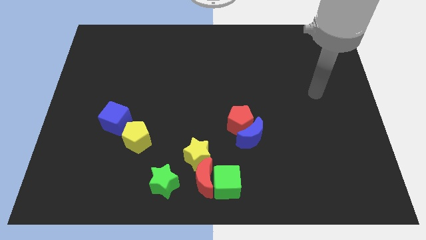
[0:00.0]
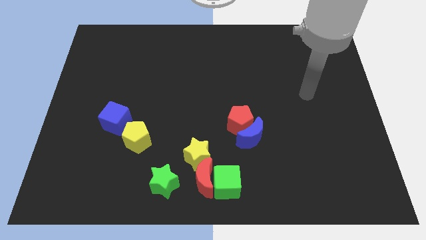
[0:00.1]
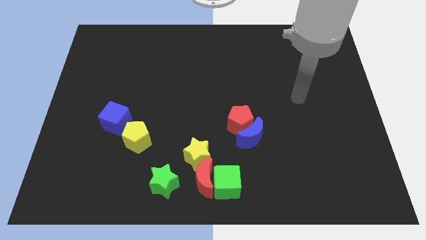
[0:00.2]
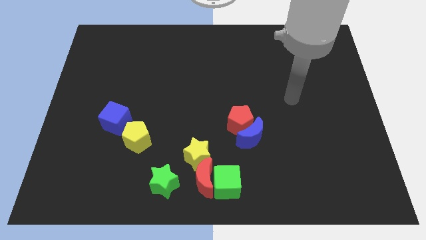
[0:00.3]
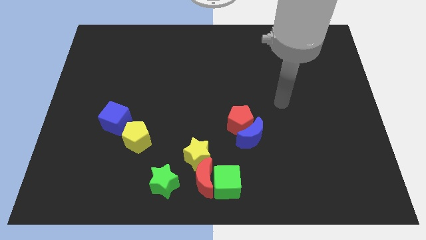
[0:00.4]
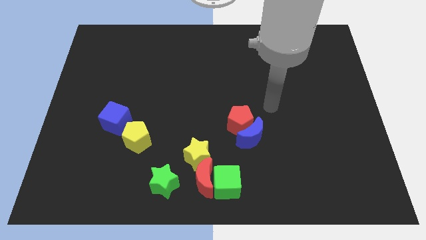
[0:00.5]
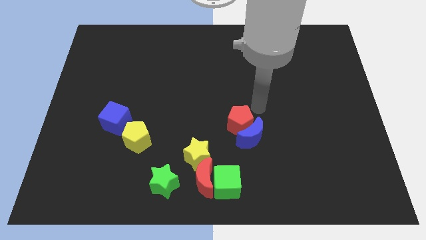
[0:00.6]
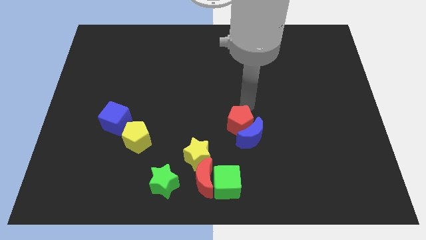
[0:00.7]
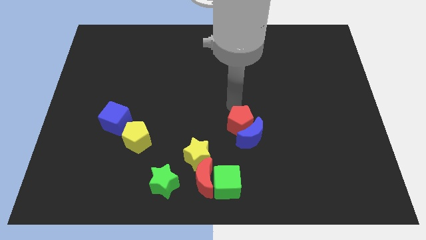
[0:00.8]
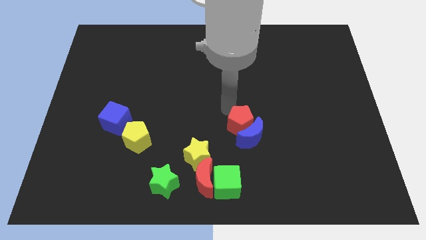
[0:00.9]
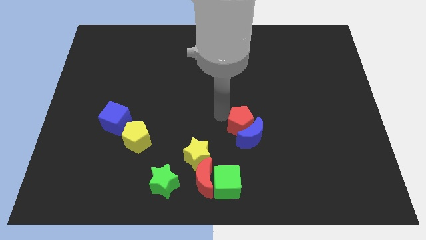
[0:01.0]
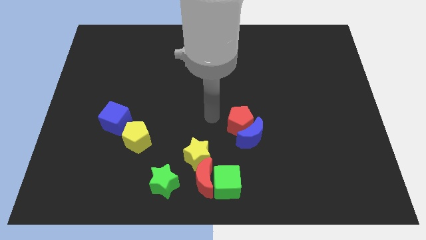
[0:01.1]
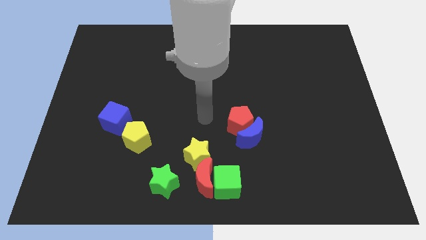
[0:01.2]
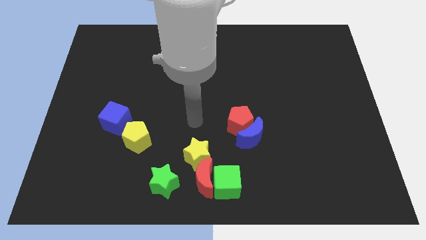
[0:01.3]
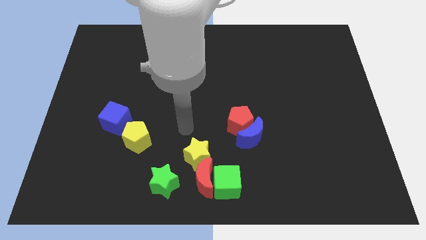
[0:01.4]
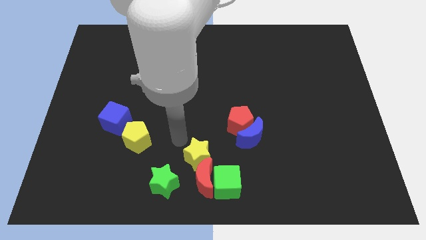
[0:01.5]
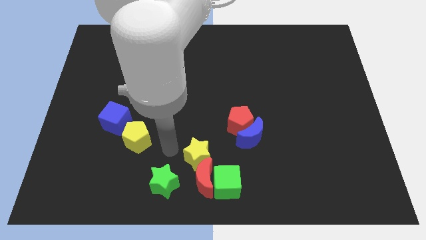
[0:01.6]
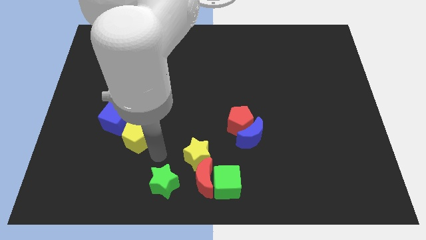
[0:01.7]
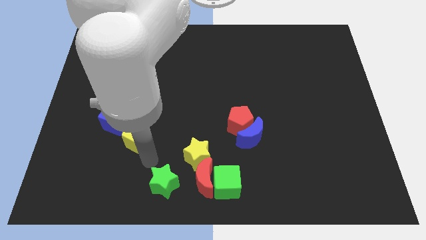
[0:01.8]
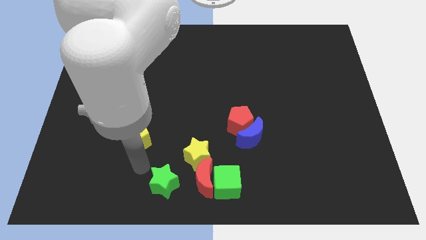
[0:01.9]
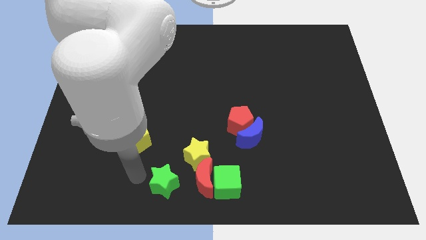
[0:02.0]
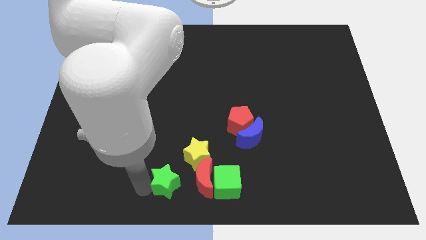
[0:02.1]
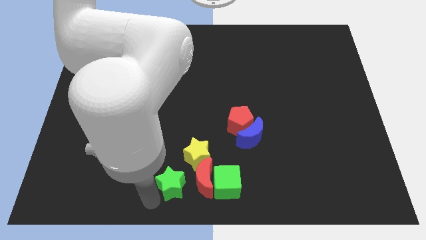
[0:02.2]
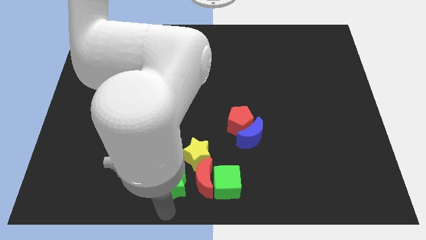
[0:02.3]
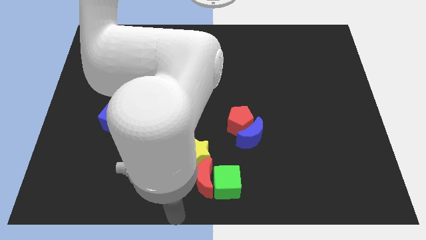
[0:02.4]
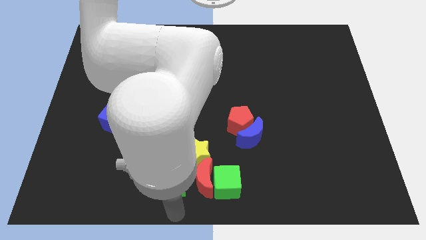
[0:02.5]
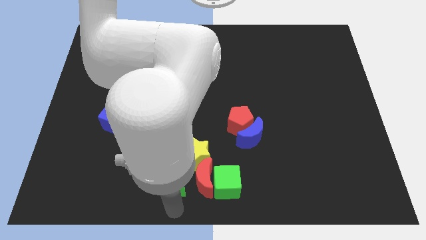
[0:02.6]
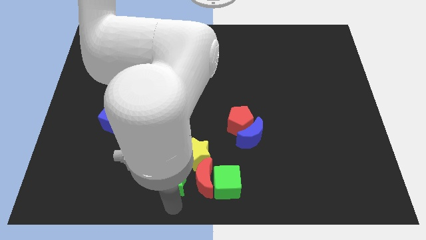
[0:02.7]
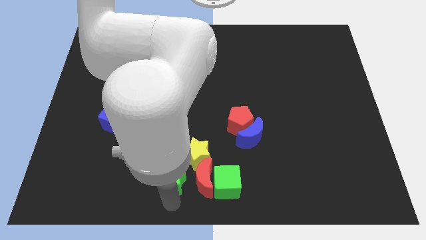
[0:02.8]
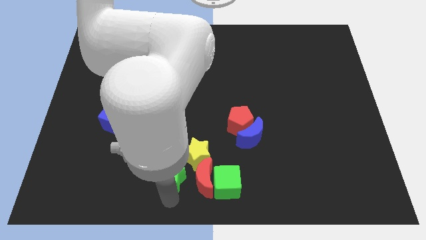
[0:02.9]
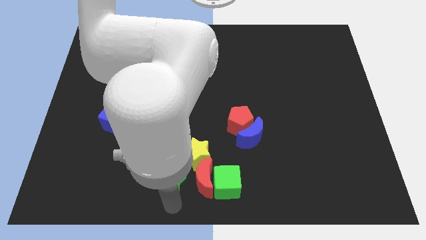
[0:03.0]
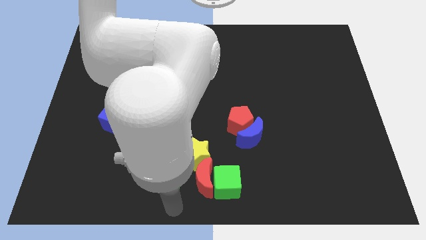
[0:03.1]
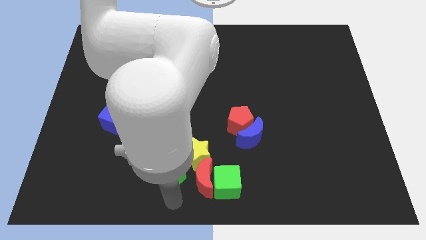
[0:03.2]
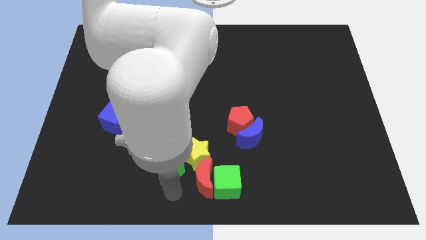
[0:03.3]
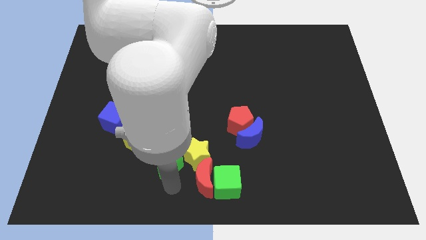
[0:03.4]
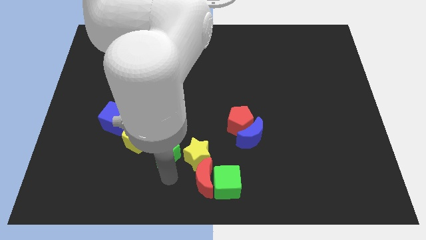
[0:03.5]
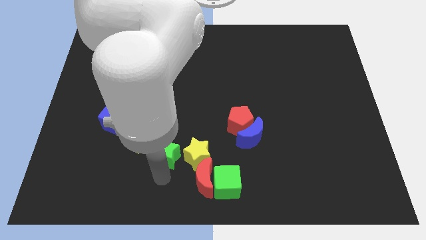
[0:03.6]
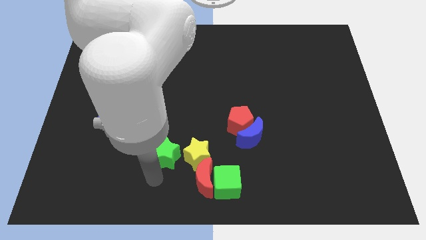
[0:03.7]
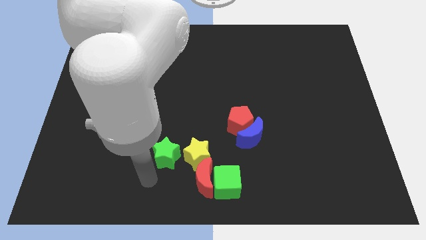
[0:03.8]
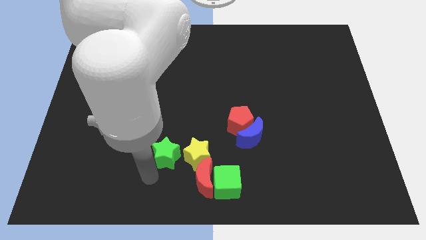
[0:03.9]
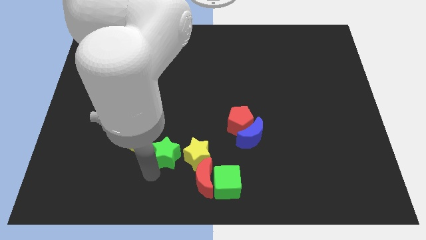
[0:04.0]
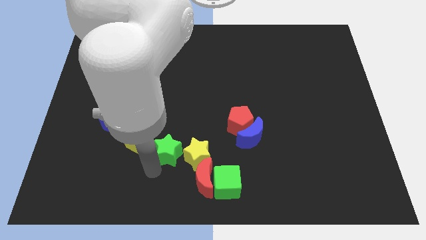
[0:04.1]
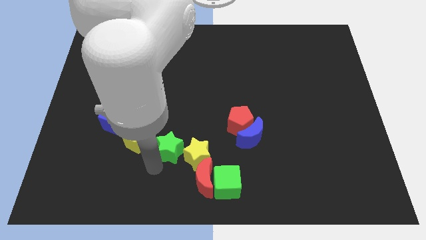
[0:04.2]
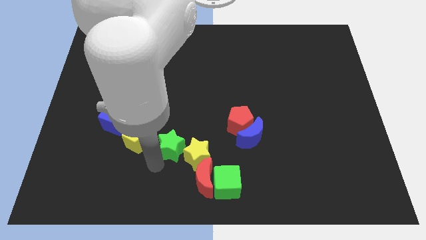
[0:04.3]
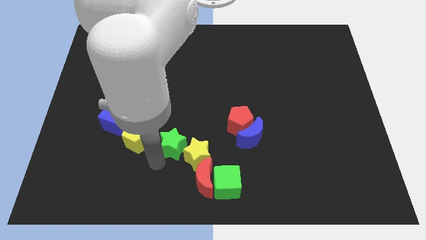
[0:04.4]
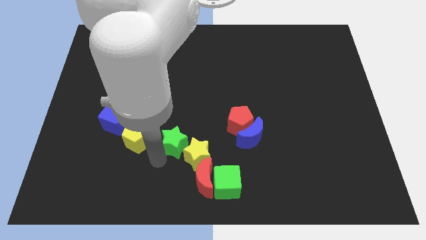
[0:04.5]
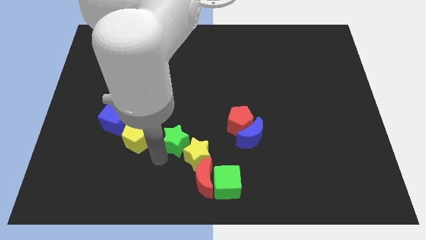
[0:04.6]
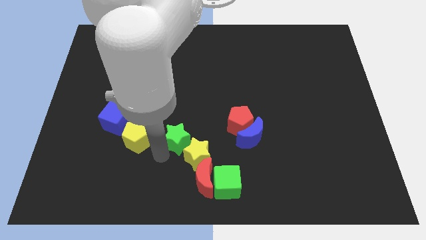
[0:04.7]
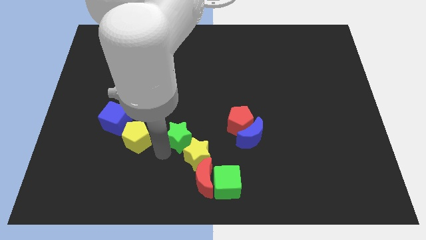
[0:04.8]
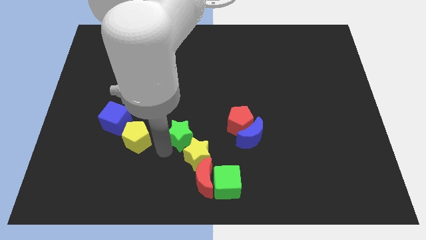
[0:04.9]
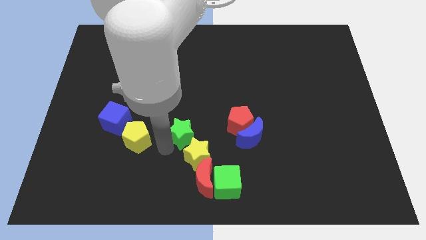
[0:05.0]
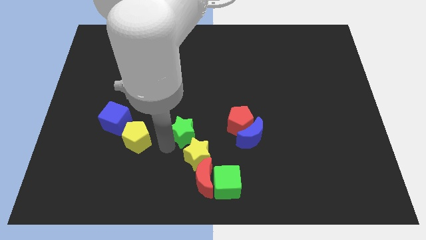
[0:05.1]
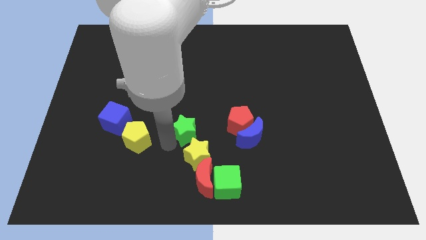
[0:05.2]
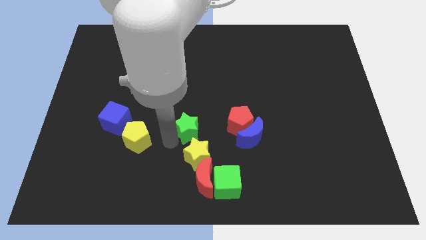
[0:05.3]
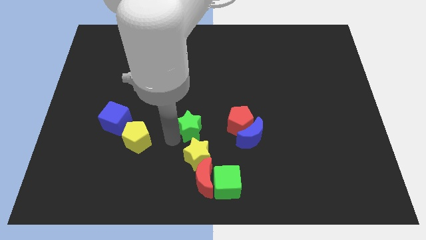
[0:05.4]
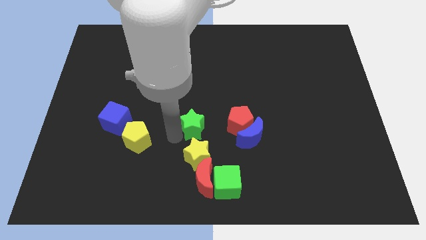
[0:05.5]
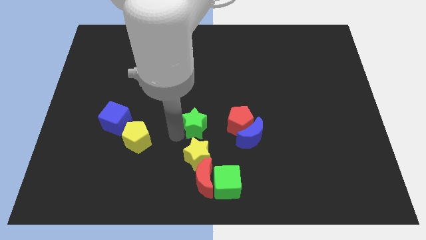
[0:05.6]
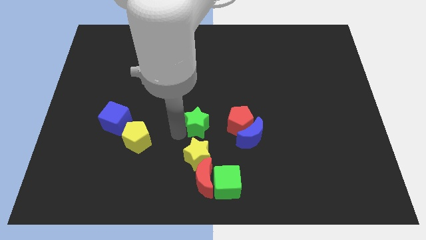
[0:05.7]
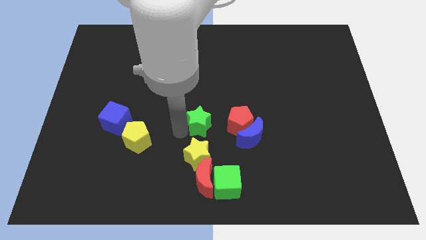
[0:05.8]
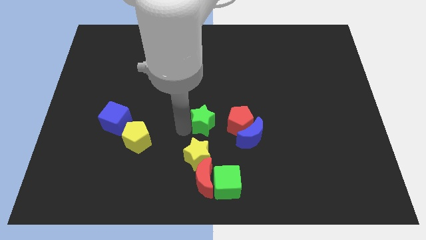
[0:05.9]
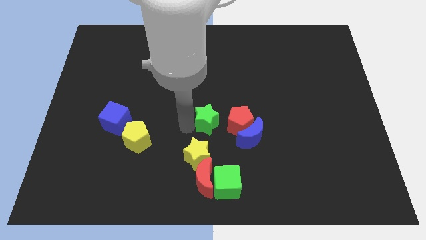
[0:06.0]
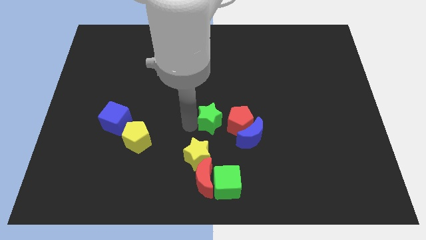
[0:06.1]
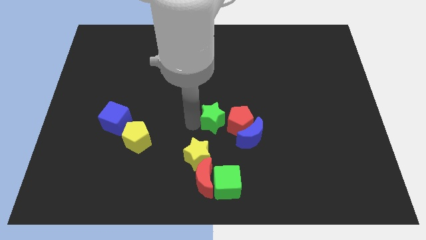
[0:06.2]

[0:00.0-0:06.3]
push the green star next to the red pentagon

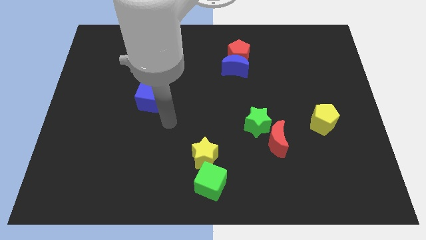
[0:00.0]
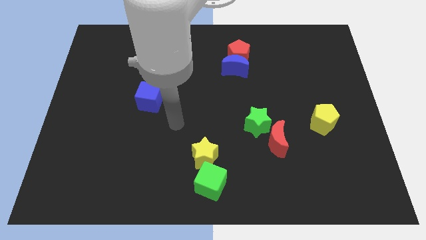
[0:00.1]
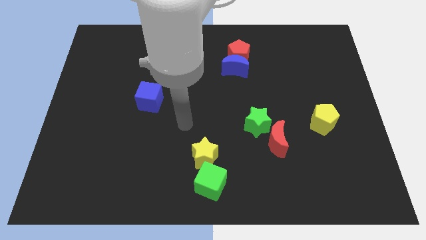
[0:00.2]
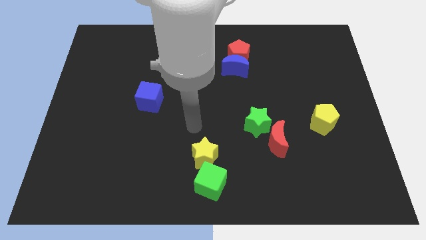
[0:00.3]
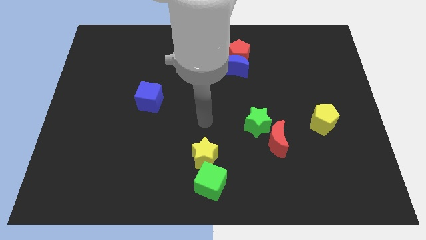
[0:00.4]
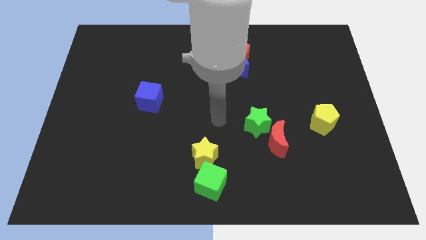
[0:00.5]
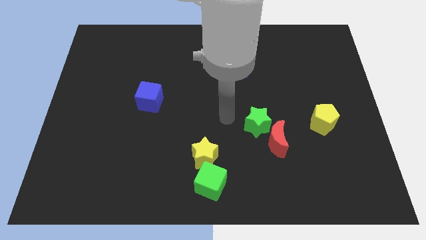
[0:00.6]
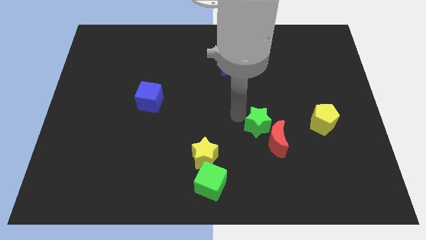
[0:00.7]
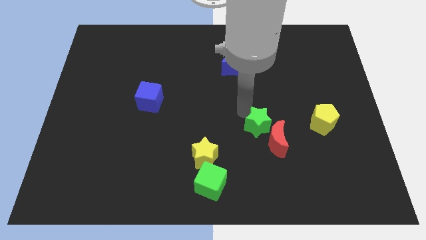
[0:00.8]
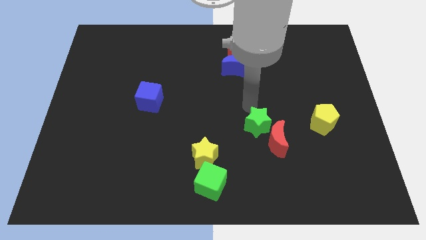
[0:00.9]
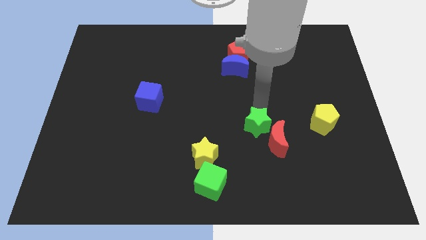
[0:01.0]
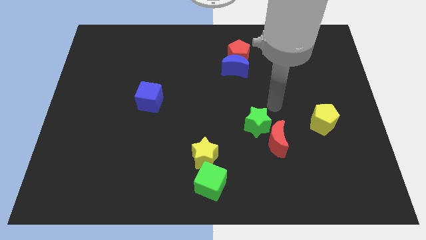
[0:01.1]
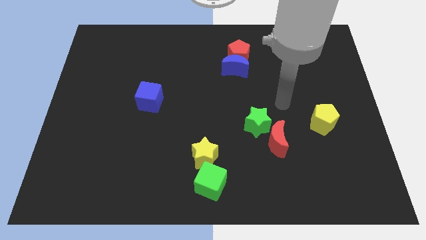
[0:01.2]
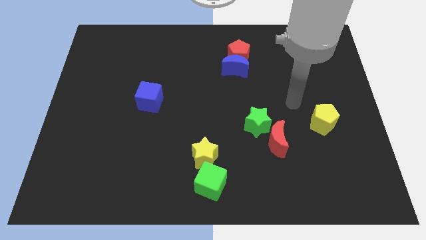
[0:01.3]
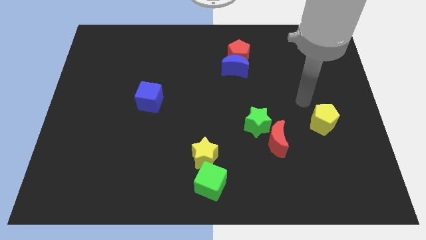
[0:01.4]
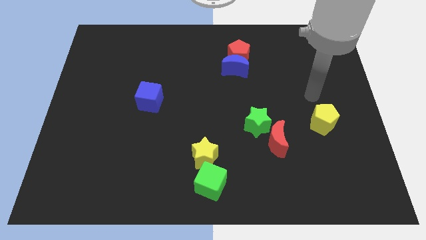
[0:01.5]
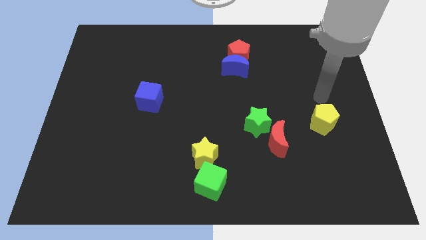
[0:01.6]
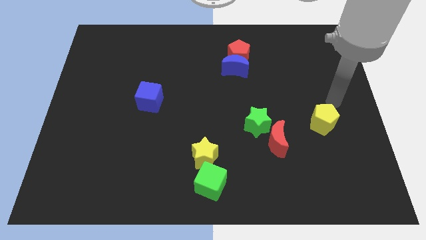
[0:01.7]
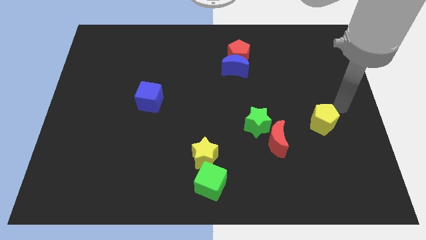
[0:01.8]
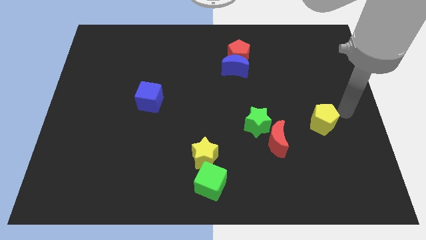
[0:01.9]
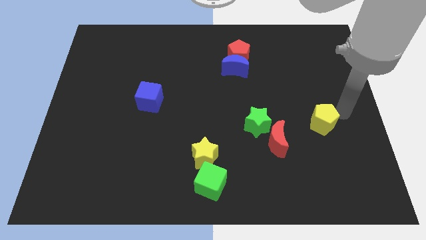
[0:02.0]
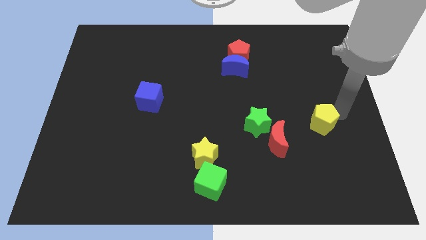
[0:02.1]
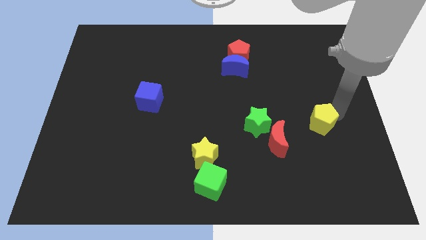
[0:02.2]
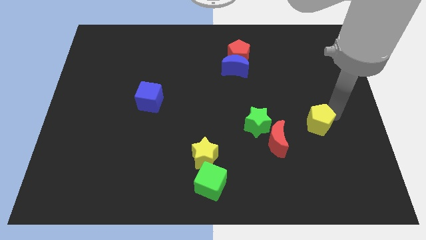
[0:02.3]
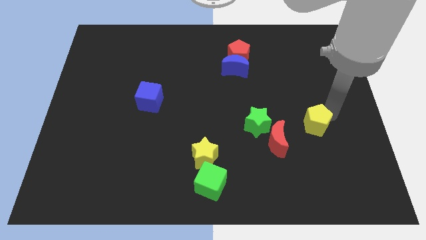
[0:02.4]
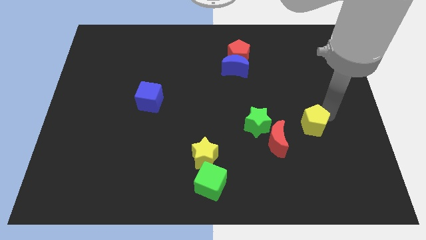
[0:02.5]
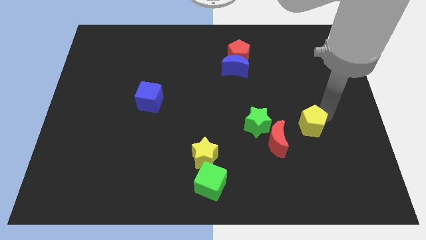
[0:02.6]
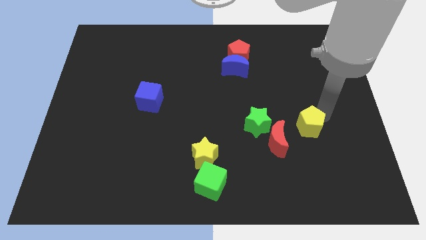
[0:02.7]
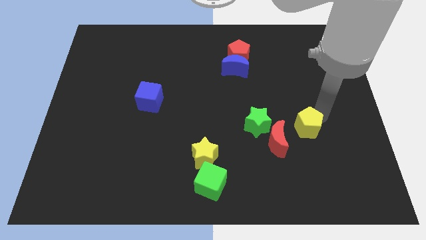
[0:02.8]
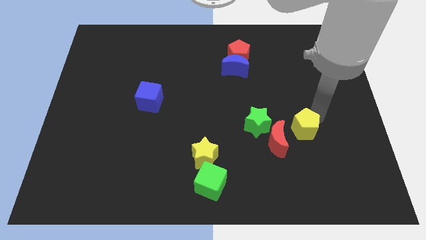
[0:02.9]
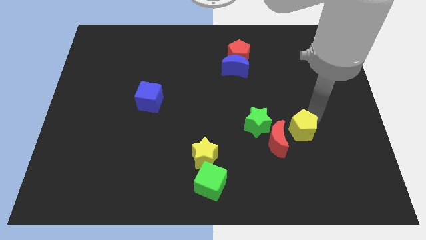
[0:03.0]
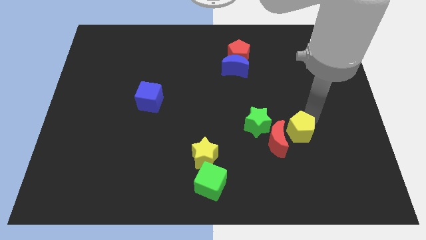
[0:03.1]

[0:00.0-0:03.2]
put the yellow pentagon to the red moon
